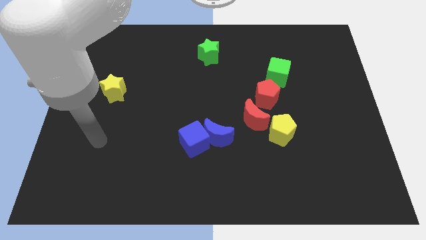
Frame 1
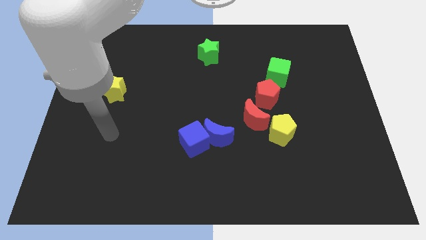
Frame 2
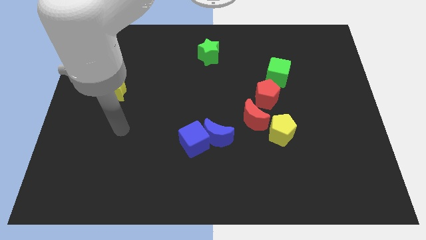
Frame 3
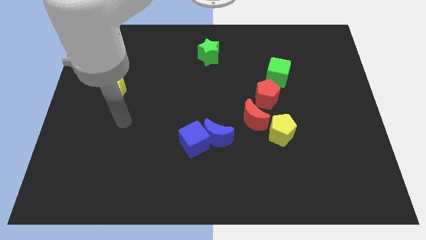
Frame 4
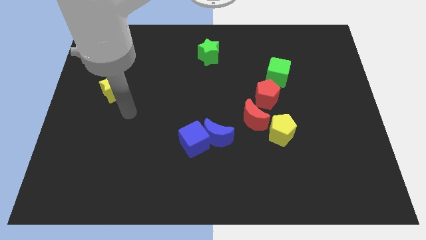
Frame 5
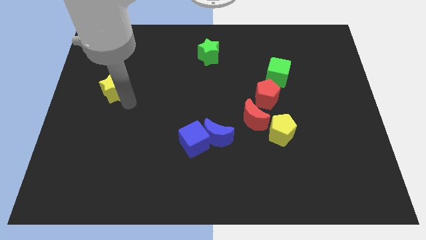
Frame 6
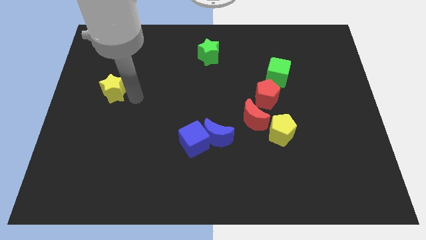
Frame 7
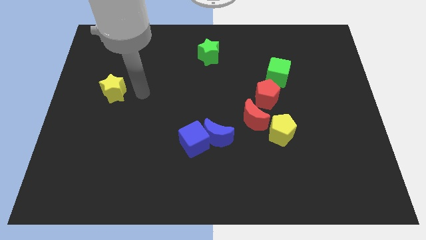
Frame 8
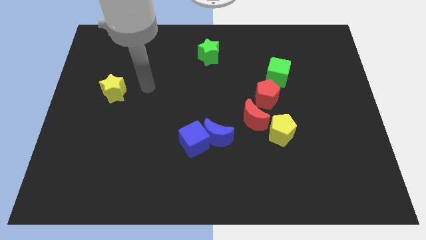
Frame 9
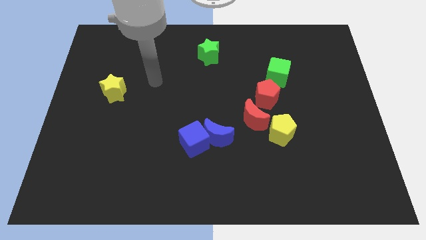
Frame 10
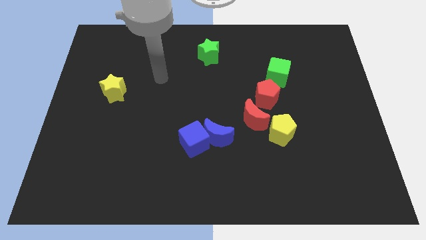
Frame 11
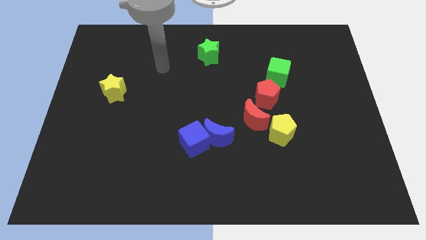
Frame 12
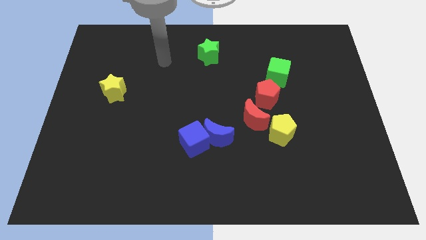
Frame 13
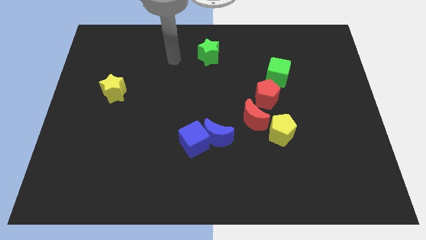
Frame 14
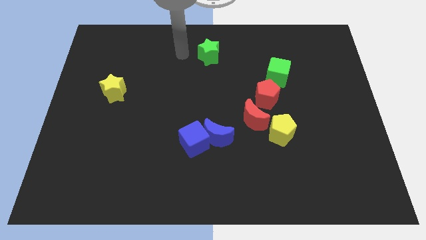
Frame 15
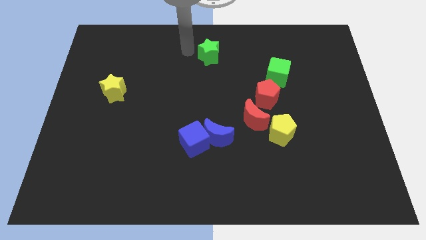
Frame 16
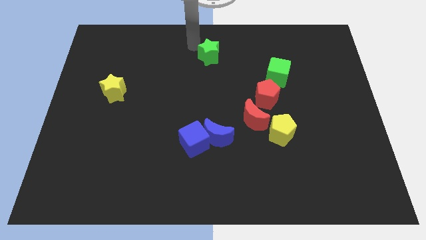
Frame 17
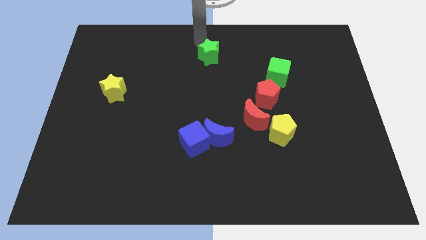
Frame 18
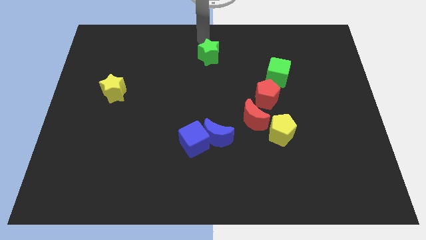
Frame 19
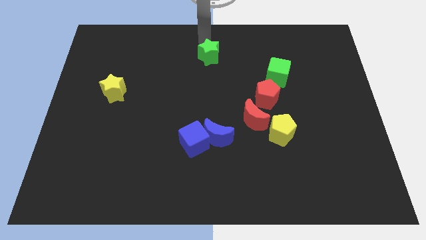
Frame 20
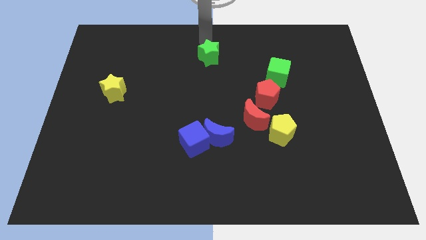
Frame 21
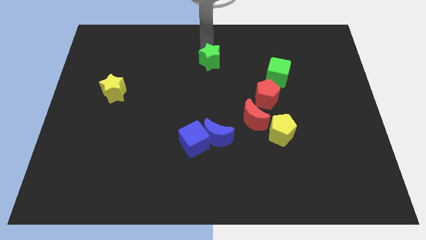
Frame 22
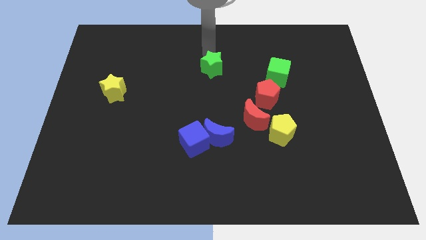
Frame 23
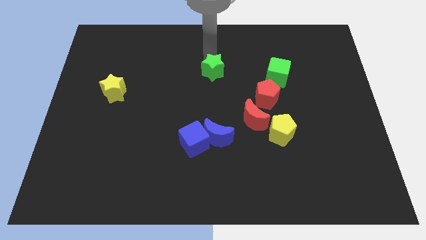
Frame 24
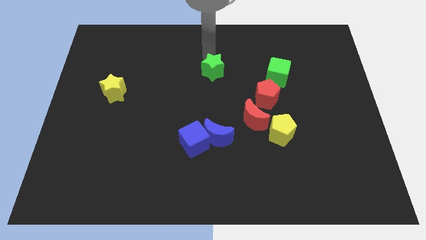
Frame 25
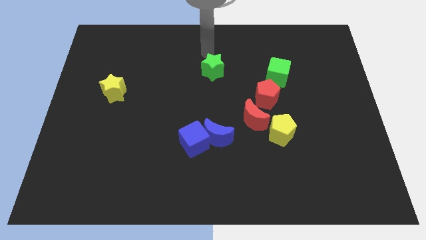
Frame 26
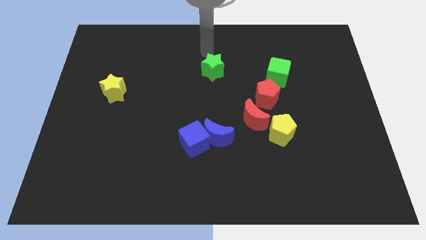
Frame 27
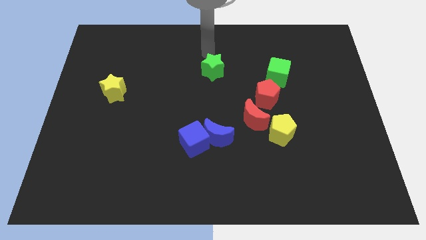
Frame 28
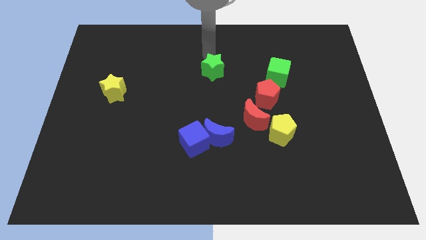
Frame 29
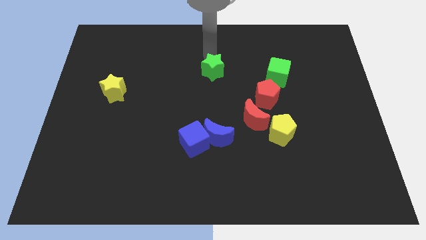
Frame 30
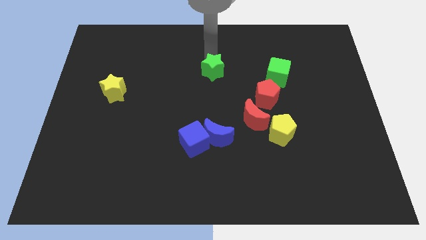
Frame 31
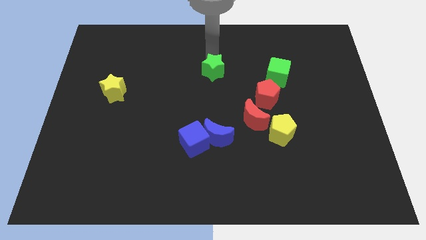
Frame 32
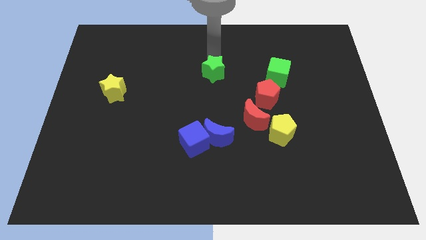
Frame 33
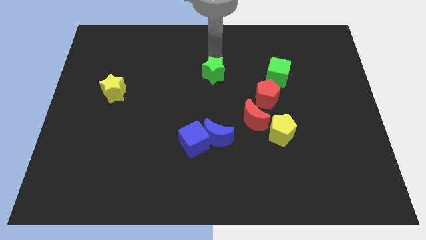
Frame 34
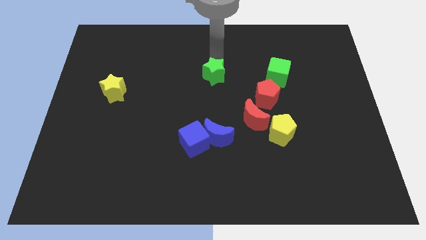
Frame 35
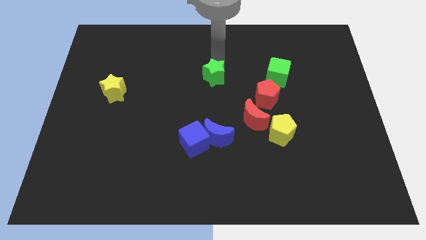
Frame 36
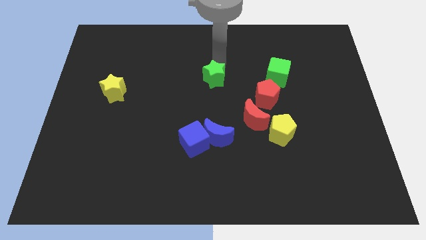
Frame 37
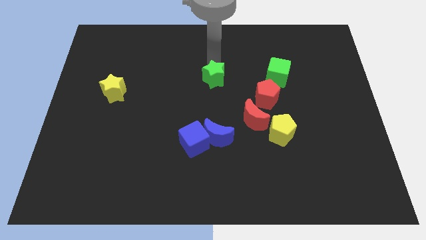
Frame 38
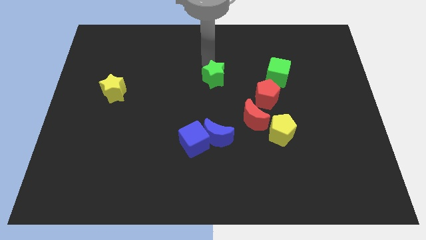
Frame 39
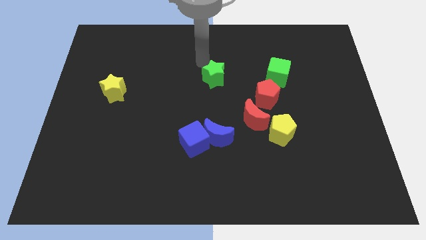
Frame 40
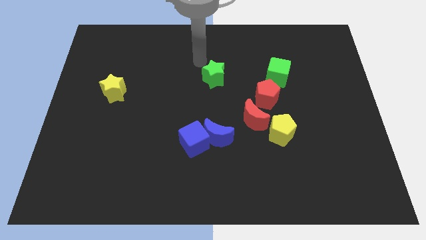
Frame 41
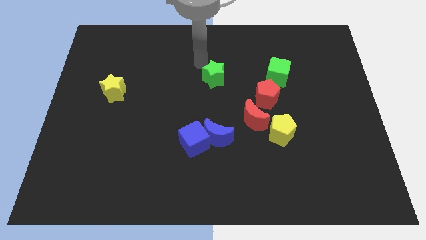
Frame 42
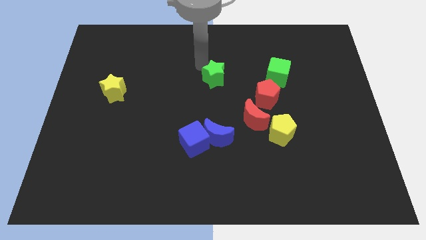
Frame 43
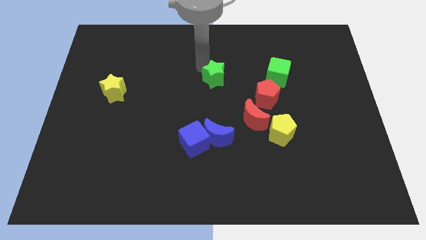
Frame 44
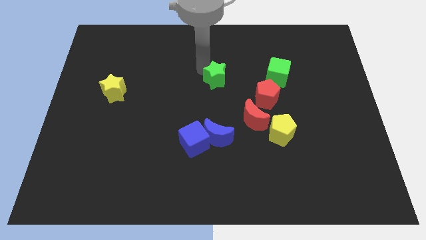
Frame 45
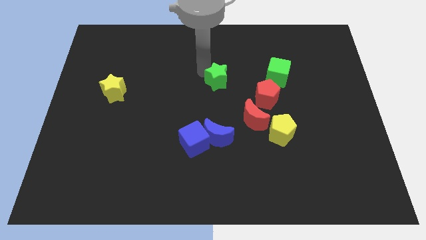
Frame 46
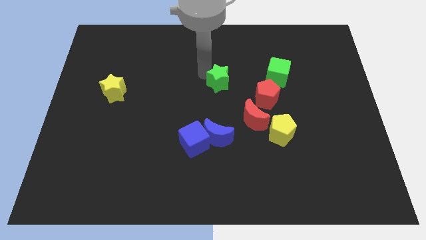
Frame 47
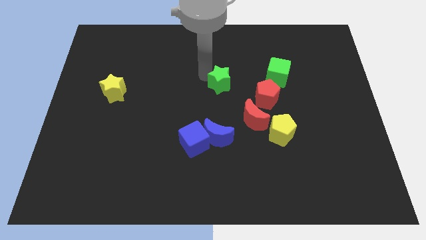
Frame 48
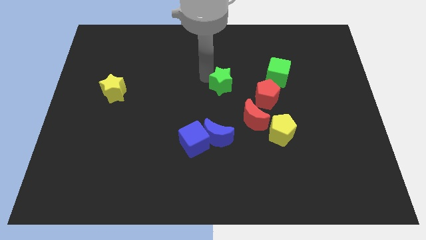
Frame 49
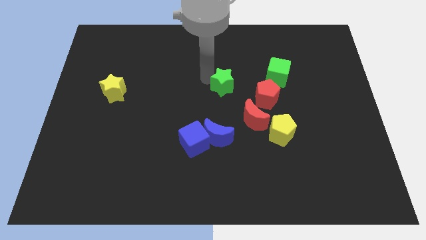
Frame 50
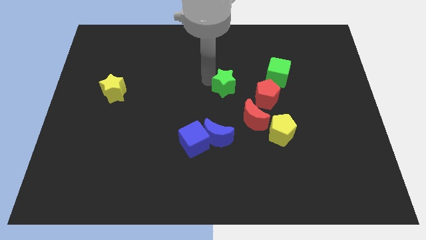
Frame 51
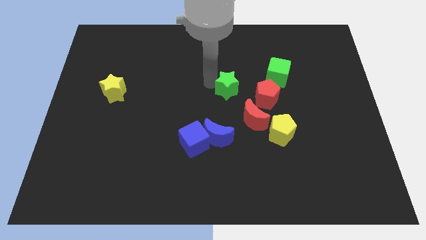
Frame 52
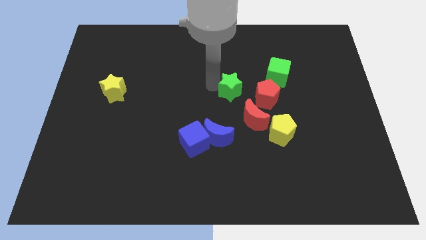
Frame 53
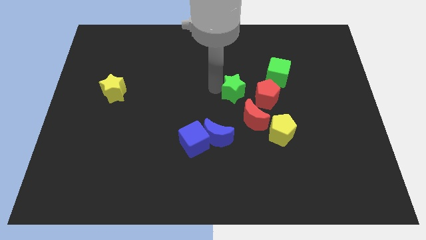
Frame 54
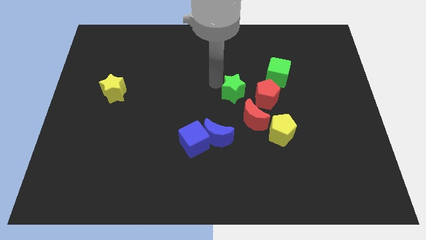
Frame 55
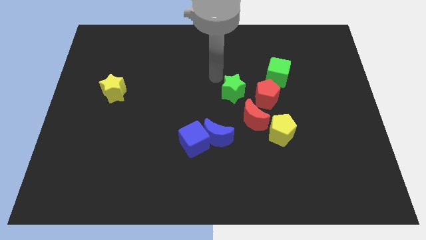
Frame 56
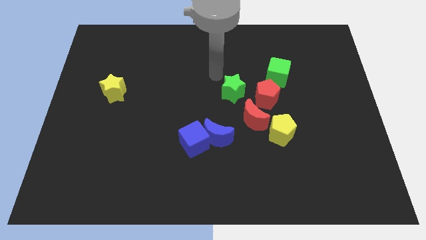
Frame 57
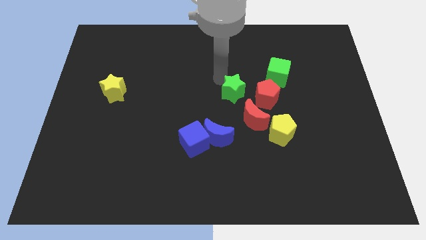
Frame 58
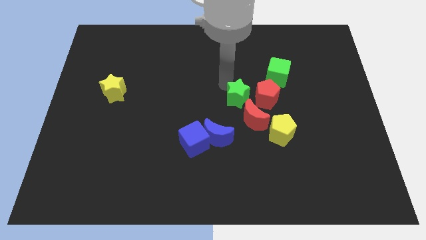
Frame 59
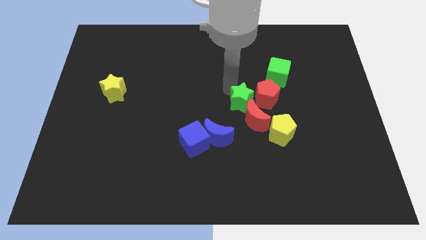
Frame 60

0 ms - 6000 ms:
put the green star to the top left of the yellow pentagon
